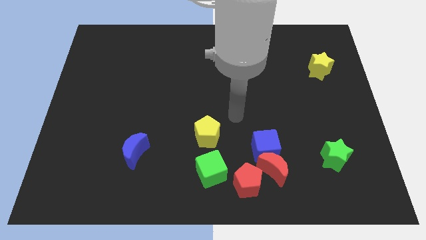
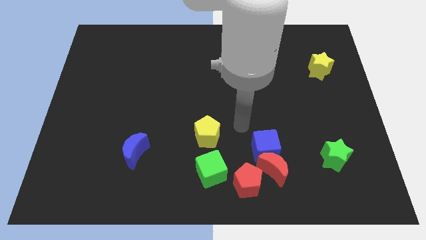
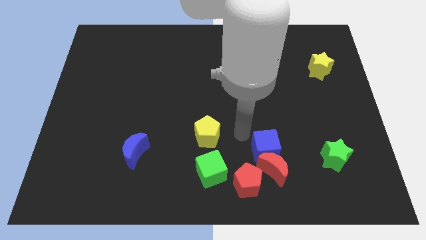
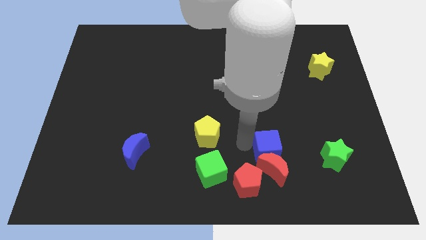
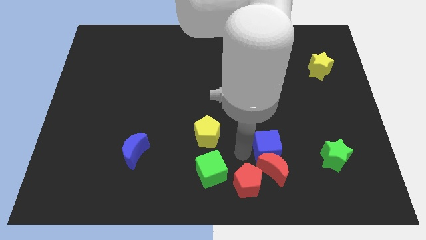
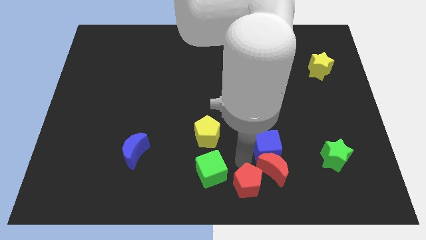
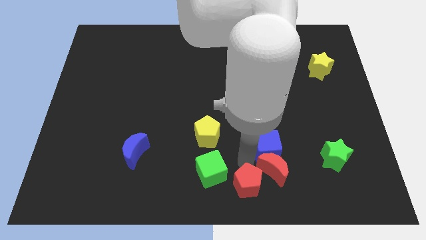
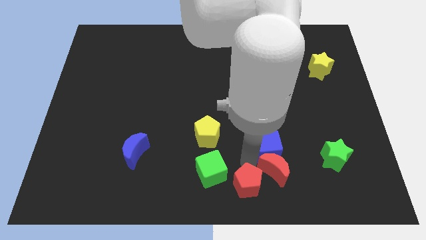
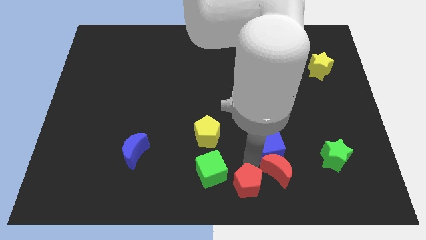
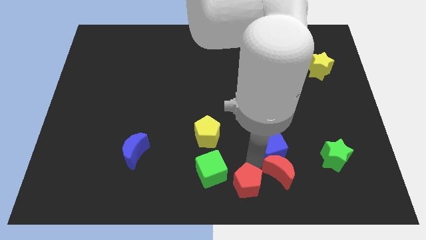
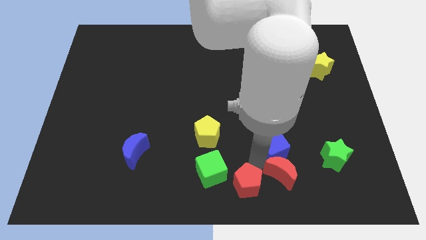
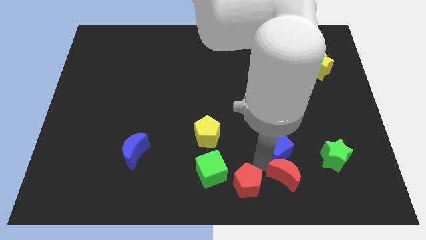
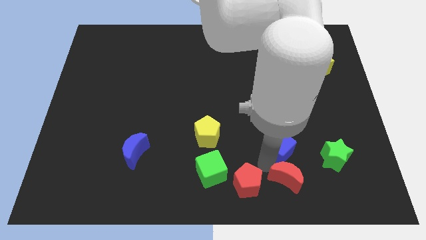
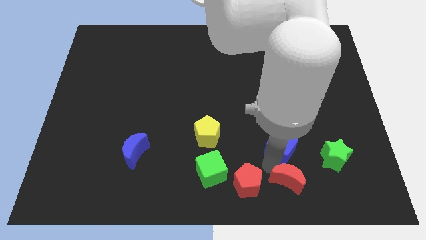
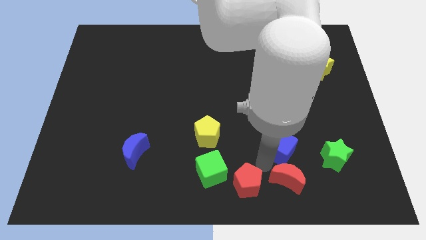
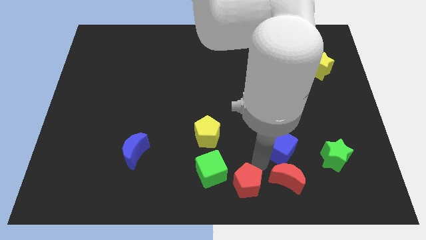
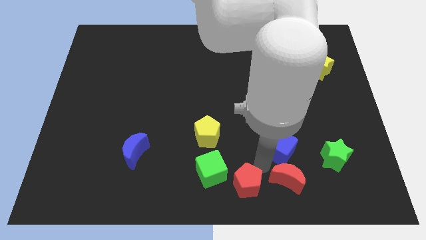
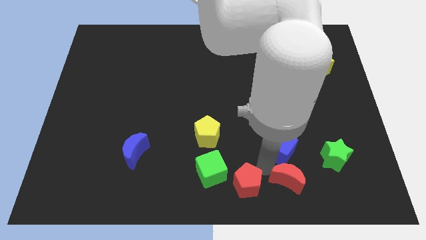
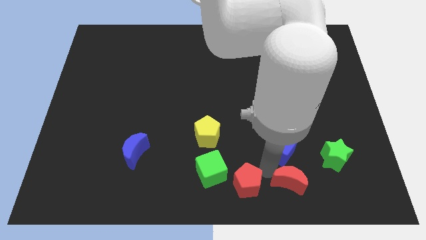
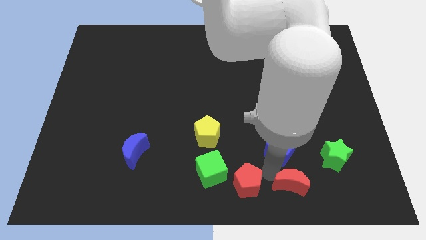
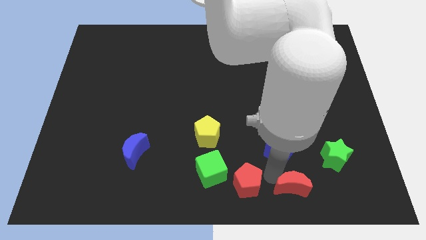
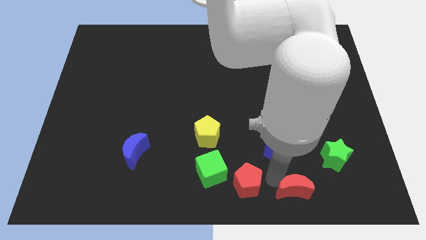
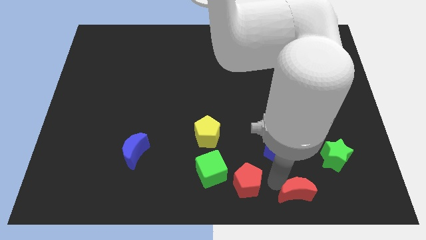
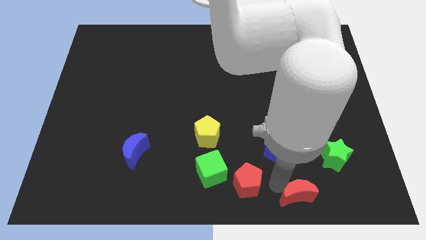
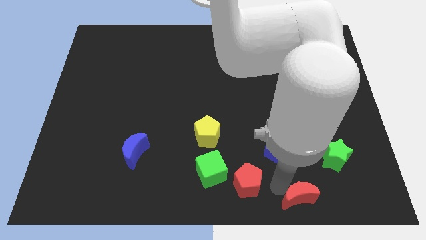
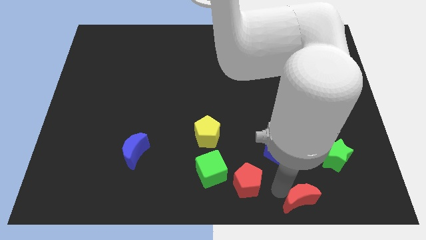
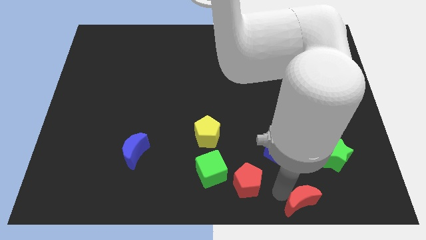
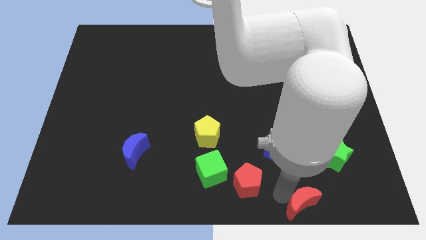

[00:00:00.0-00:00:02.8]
move the red moon away from the blue cube and red pentagon

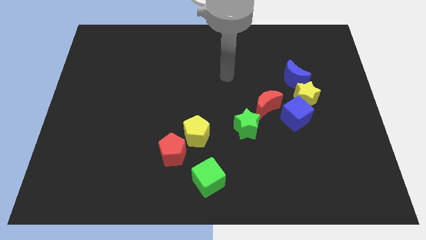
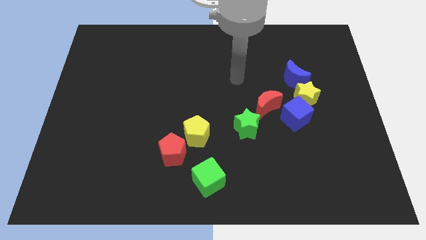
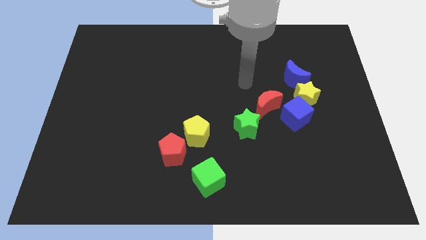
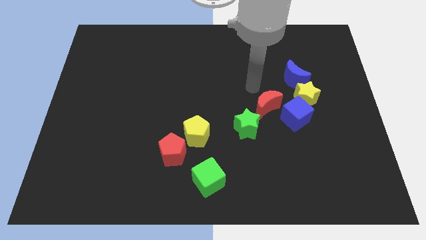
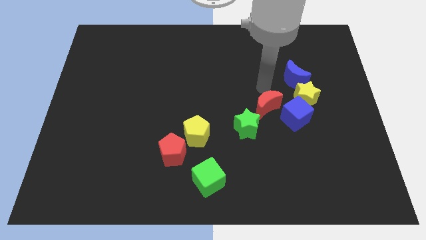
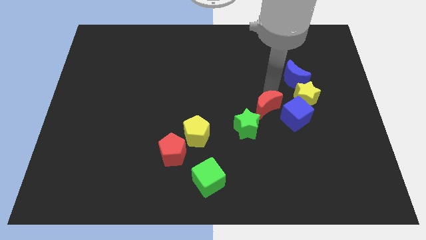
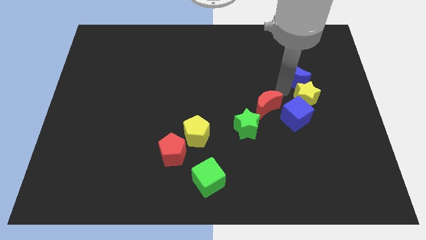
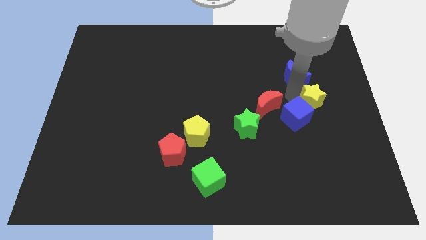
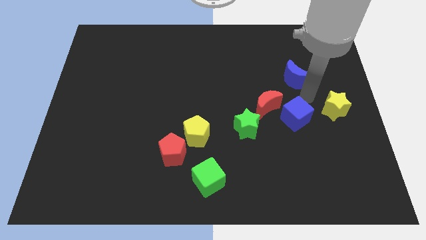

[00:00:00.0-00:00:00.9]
separate the blue moon from the yellow star

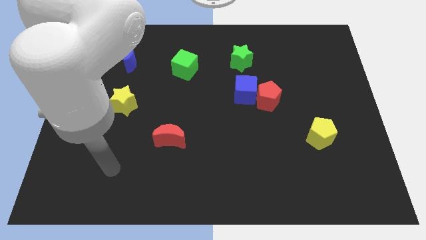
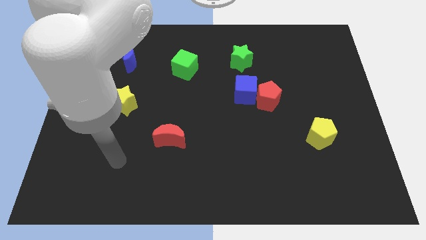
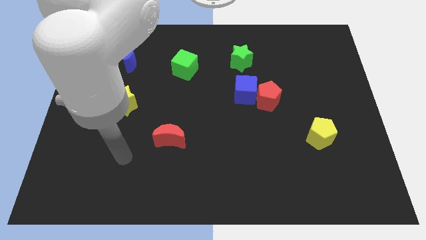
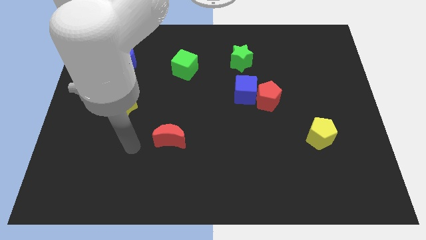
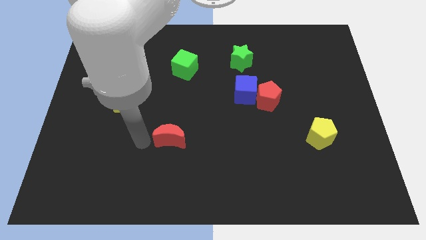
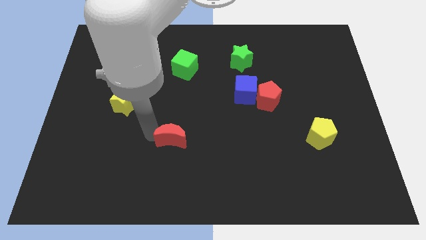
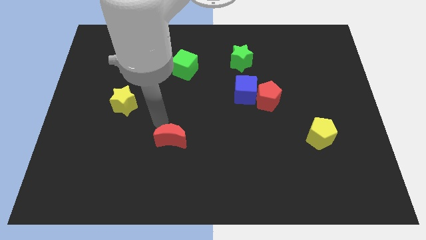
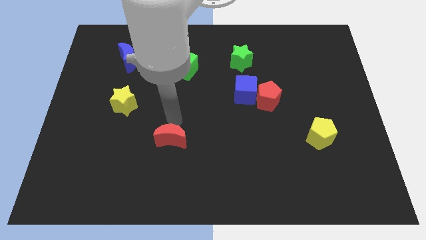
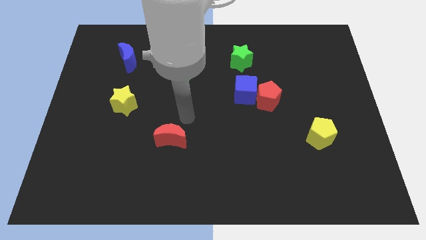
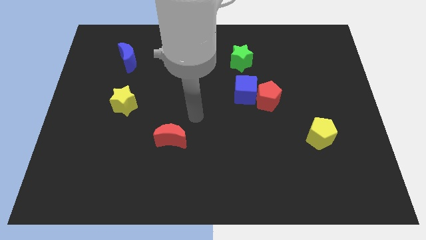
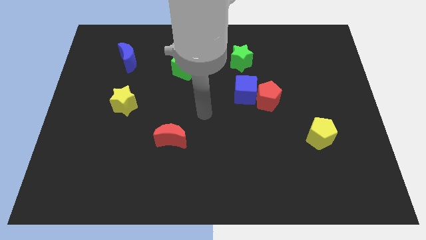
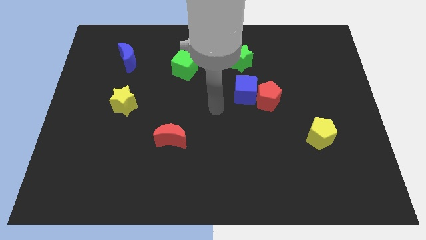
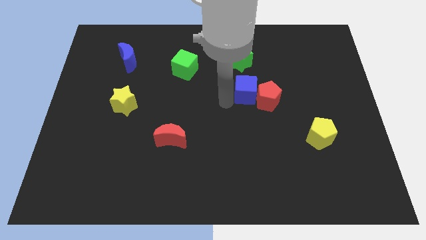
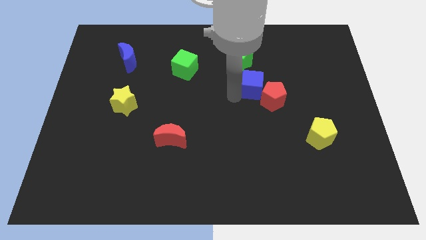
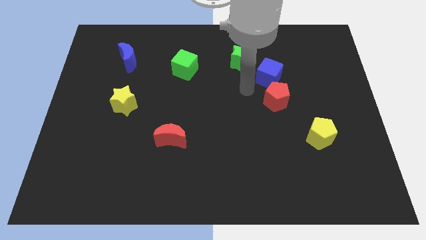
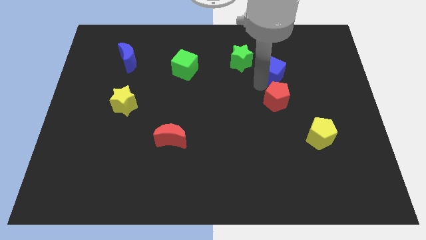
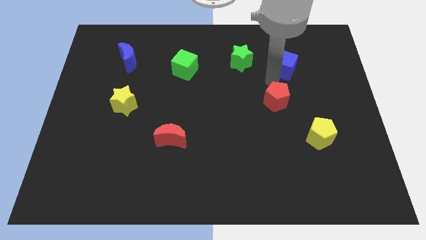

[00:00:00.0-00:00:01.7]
pull the red pentagon apart from the blue cube

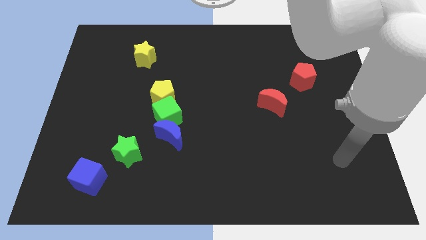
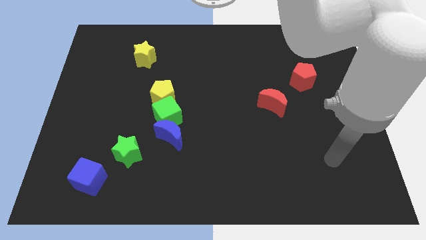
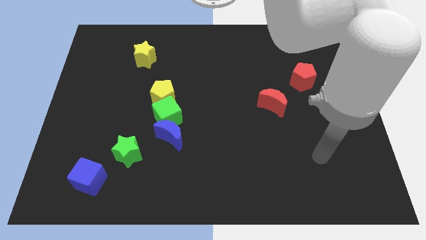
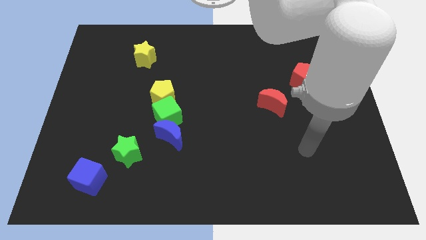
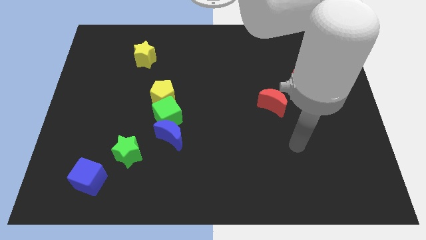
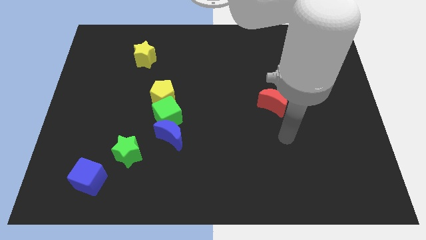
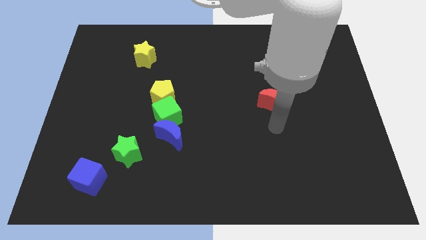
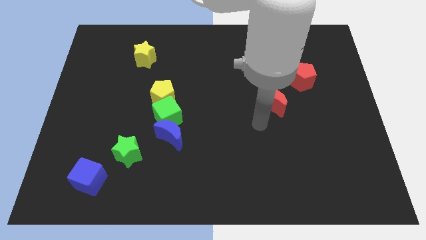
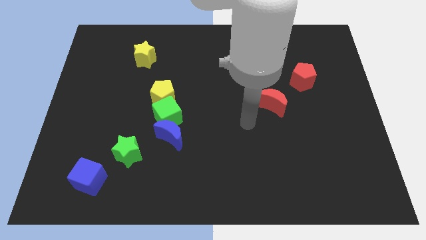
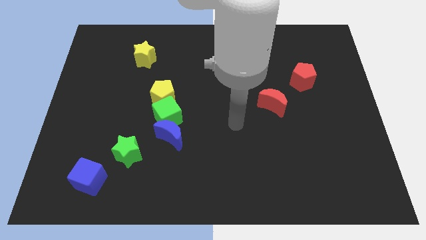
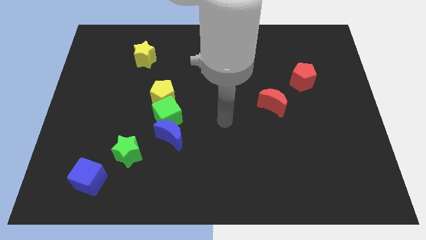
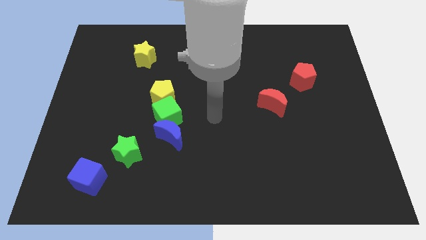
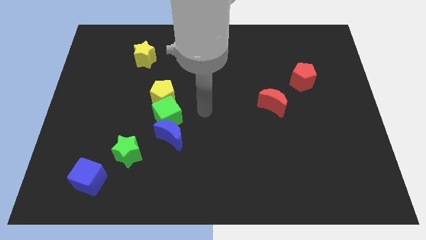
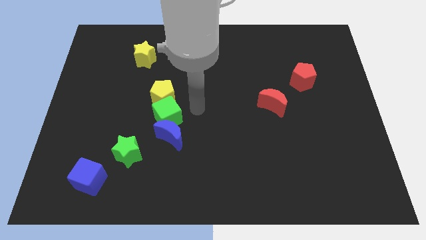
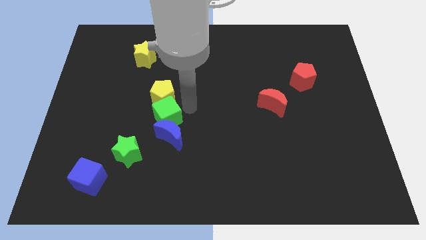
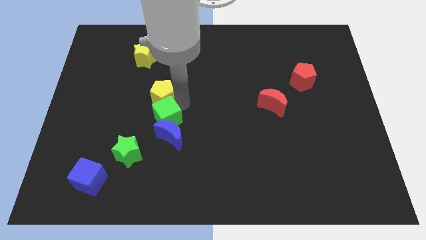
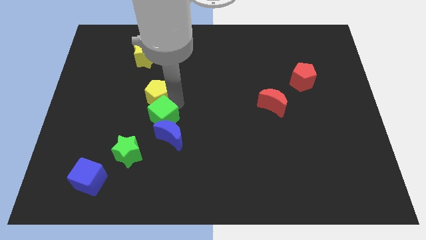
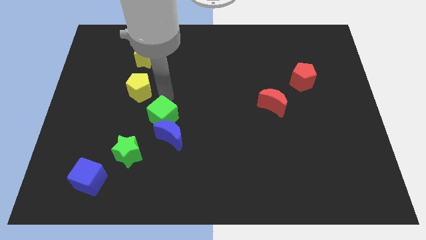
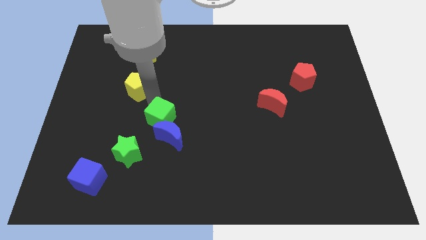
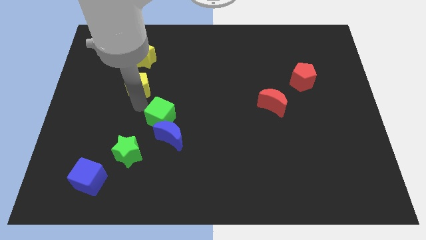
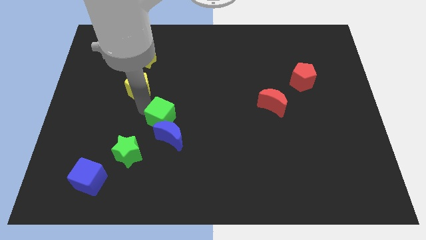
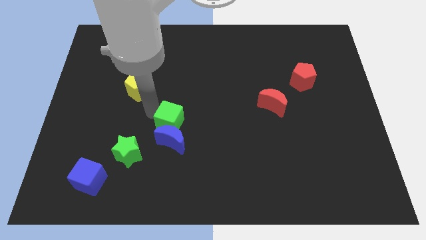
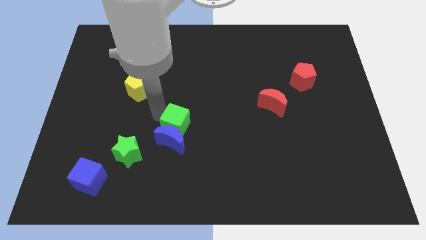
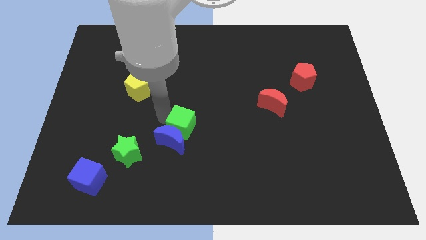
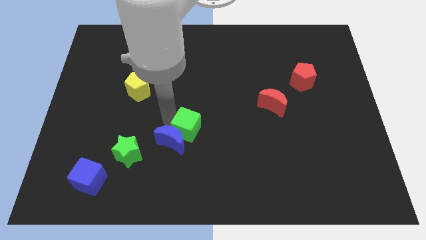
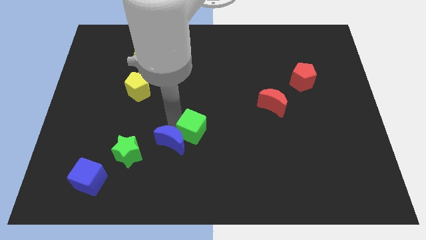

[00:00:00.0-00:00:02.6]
move the green cube away from the blue moon and yellow pentagon

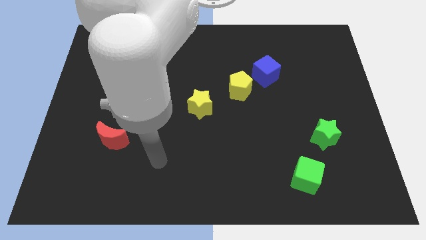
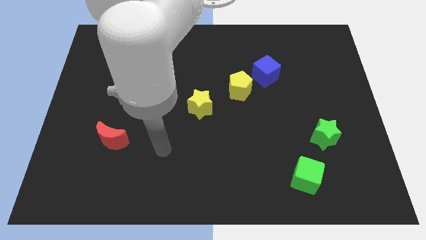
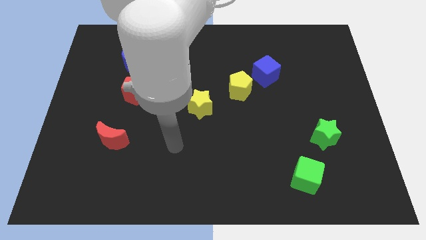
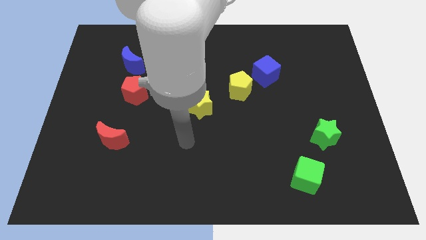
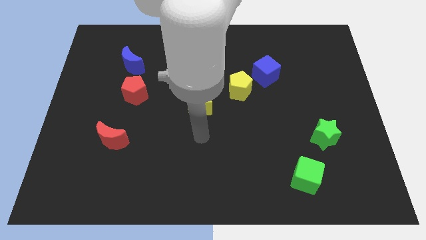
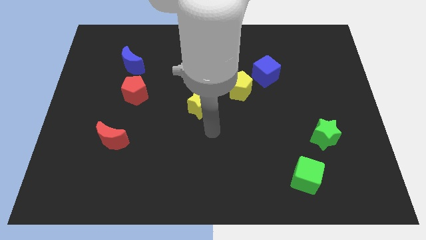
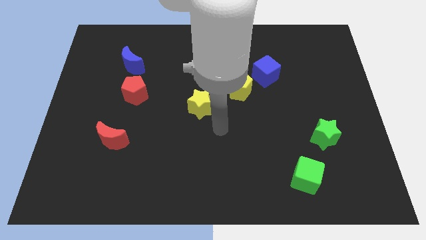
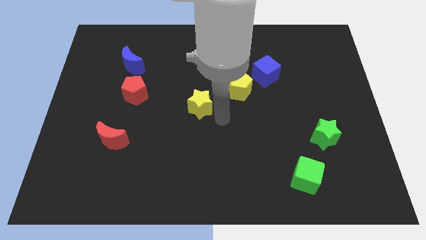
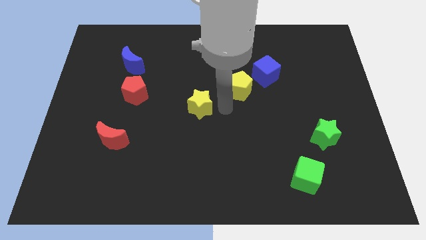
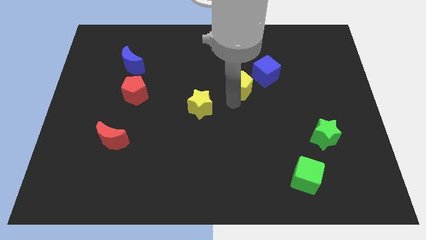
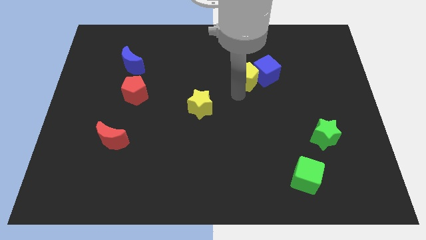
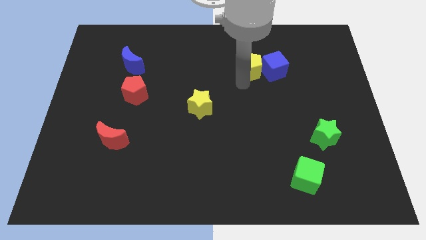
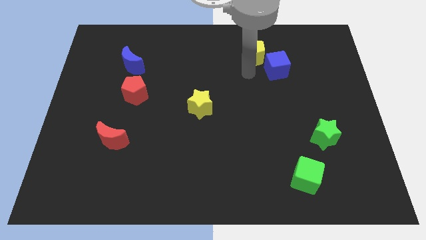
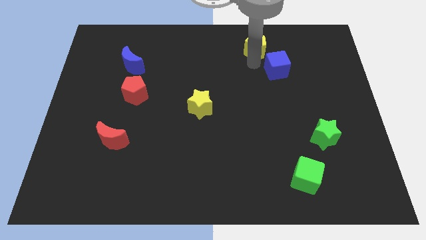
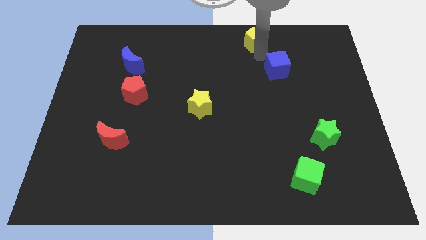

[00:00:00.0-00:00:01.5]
separate the blue cube from the yellow pentagon
